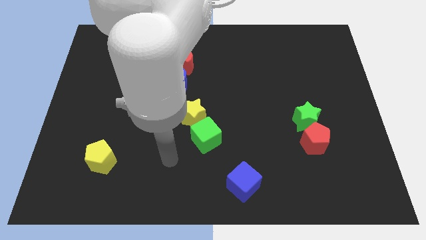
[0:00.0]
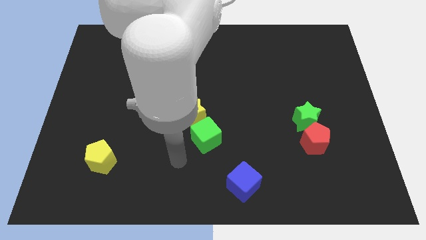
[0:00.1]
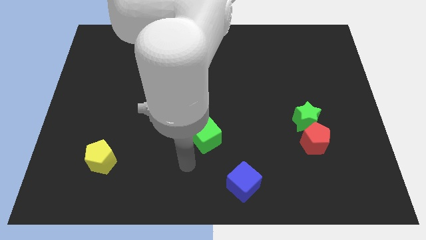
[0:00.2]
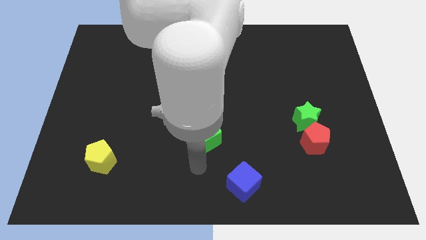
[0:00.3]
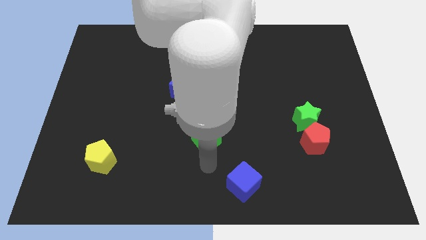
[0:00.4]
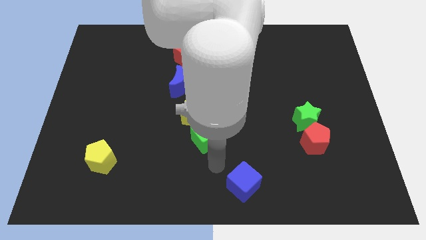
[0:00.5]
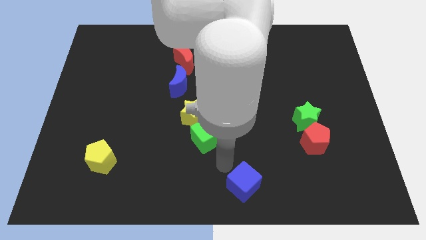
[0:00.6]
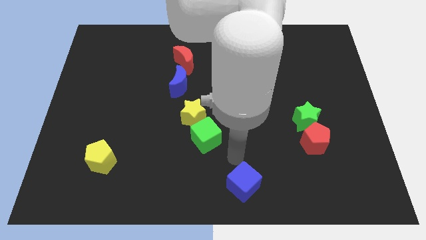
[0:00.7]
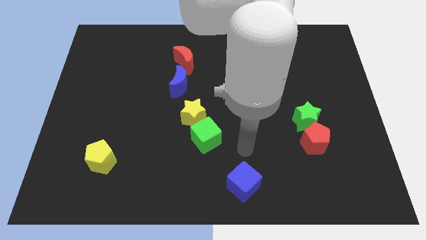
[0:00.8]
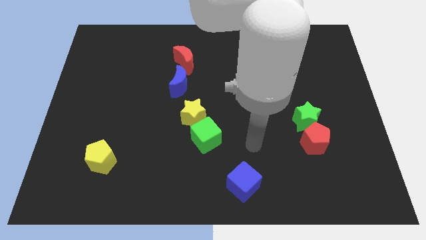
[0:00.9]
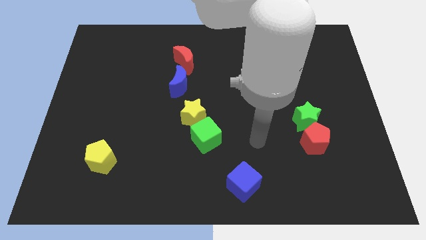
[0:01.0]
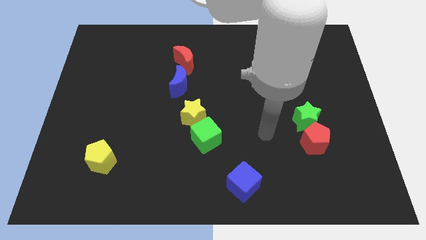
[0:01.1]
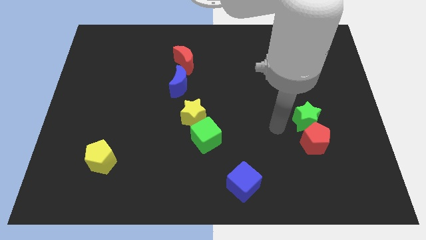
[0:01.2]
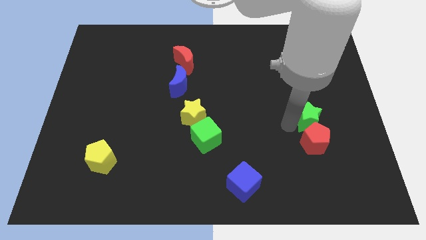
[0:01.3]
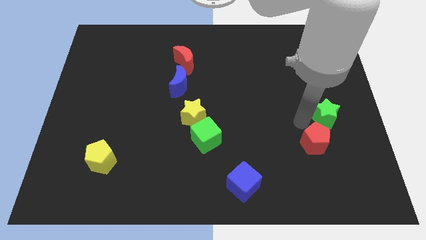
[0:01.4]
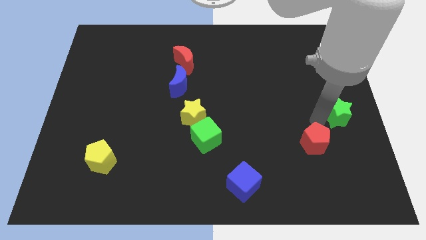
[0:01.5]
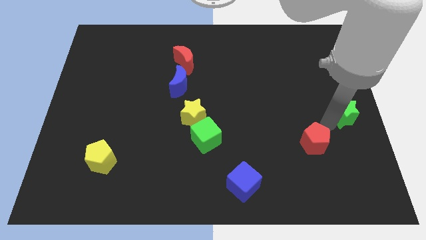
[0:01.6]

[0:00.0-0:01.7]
pull the red pentagon apart from the green star

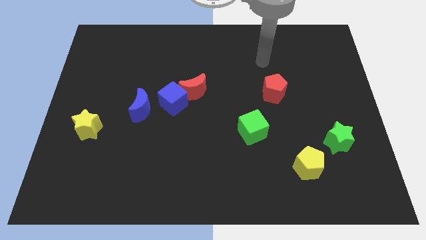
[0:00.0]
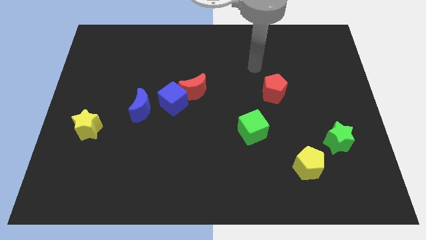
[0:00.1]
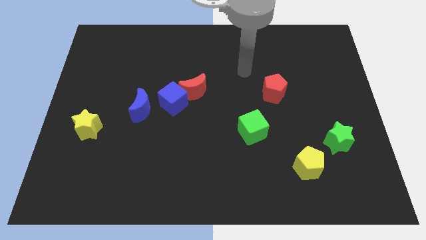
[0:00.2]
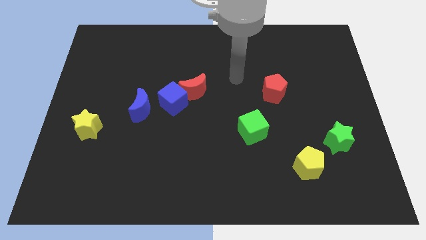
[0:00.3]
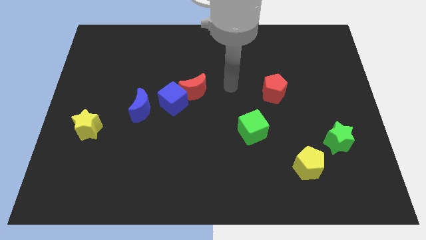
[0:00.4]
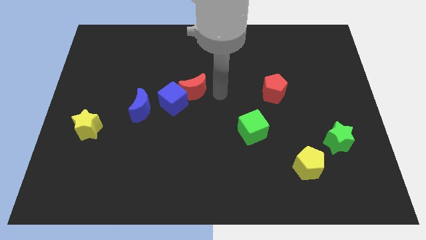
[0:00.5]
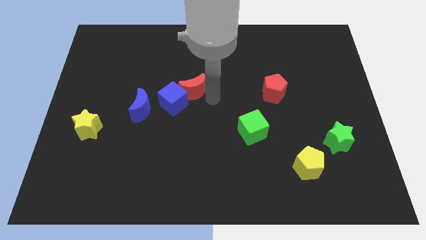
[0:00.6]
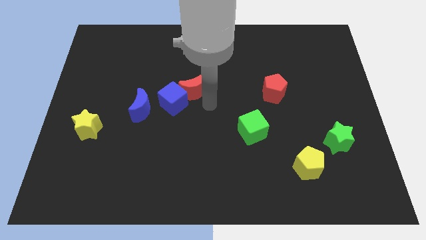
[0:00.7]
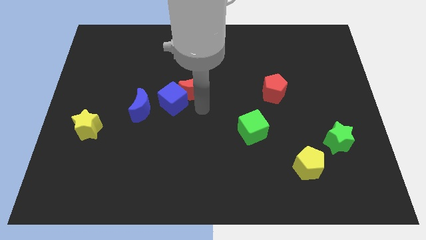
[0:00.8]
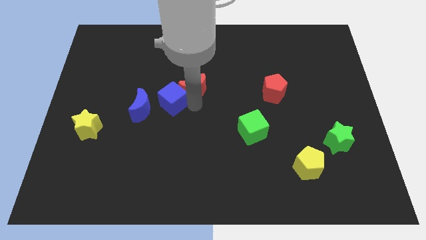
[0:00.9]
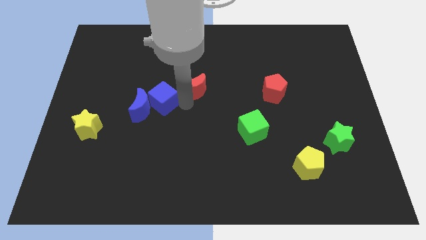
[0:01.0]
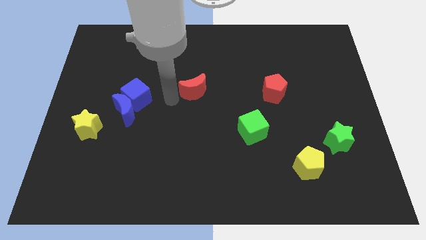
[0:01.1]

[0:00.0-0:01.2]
separate the red moon from the blue cube

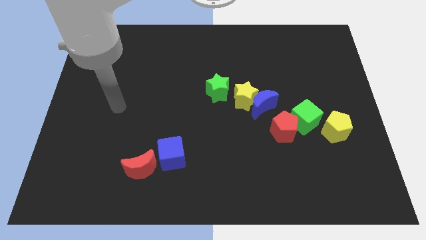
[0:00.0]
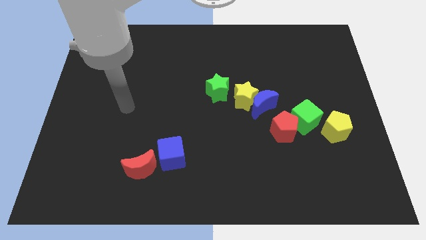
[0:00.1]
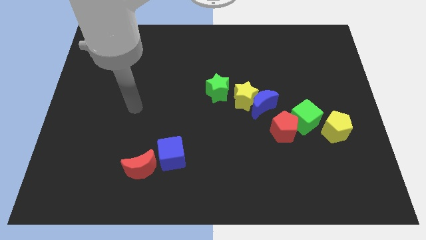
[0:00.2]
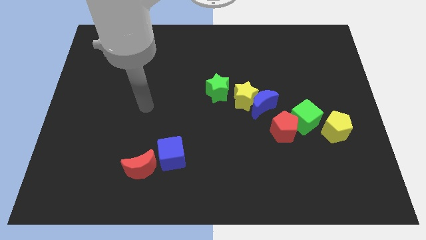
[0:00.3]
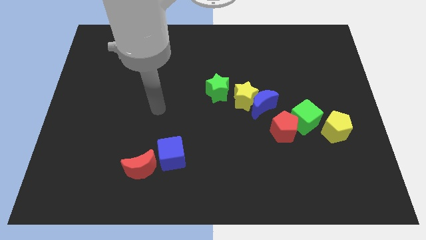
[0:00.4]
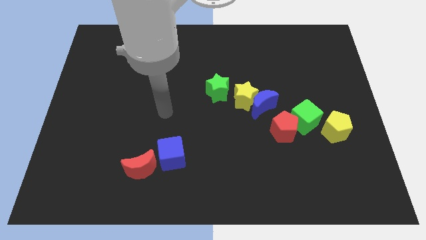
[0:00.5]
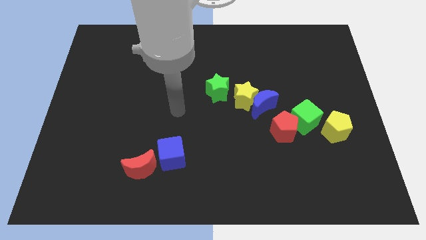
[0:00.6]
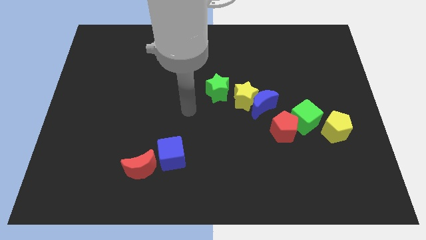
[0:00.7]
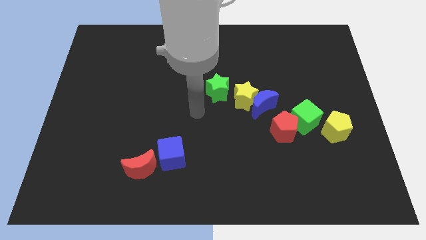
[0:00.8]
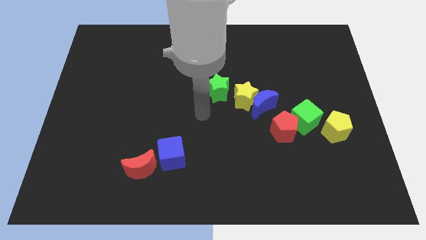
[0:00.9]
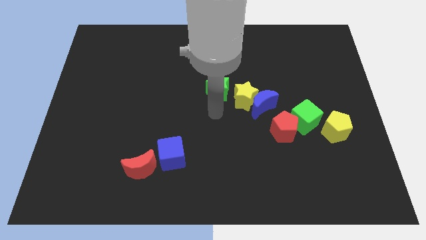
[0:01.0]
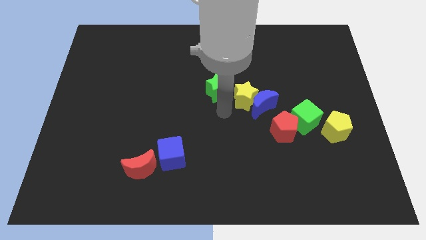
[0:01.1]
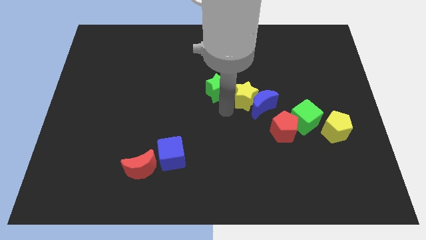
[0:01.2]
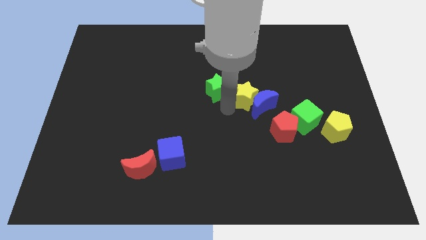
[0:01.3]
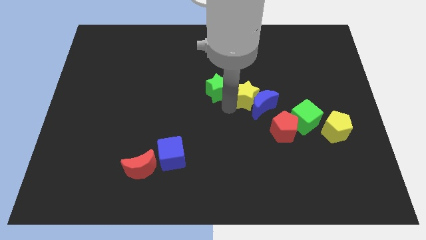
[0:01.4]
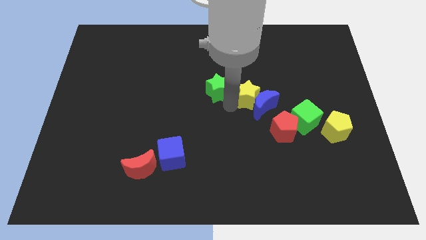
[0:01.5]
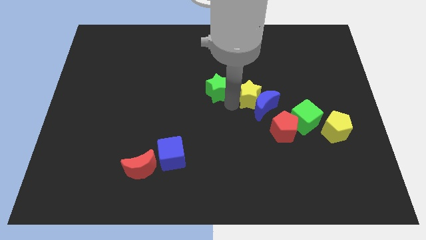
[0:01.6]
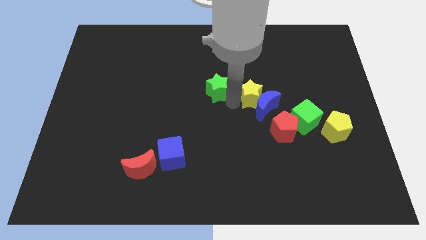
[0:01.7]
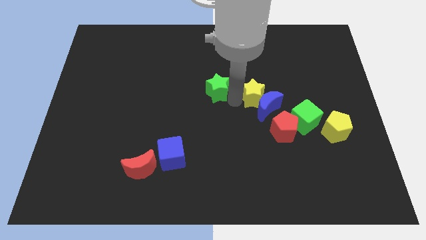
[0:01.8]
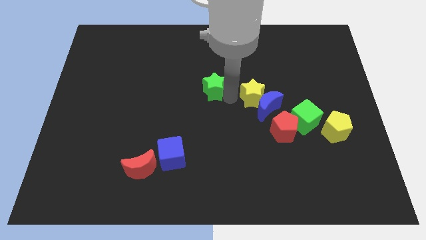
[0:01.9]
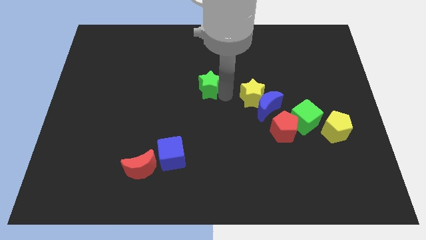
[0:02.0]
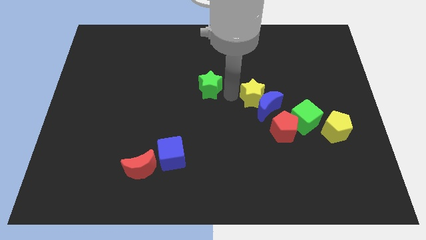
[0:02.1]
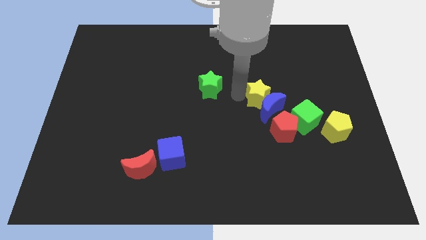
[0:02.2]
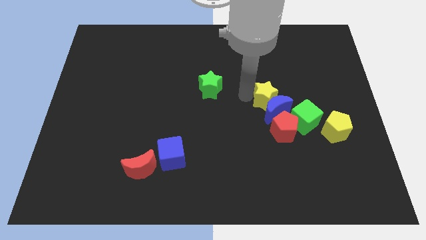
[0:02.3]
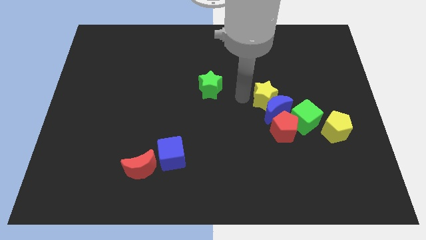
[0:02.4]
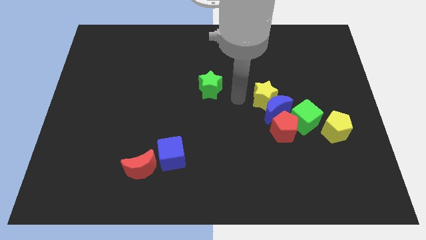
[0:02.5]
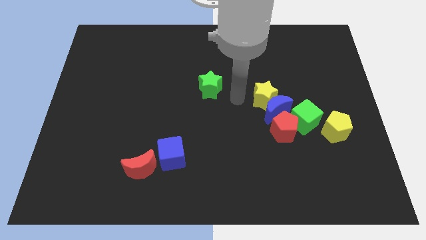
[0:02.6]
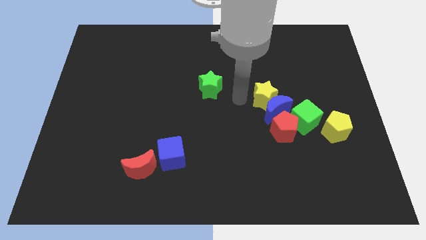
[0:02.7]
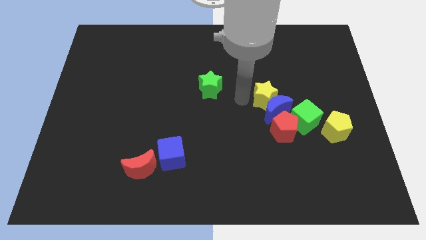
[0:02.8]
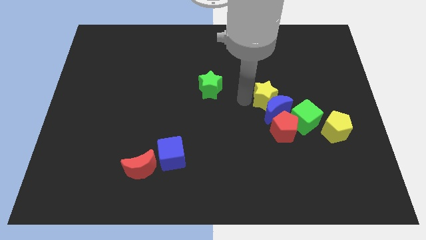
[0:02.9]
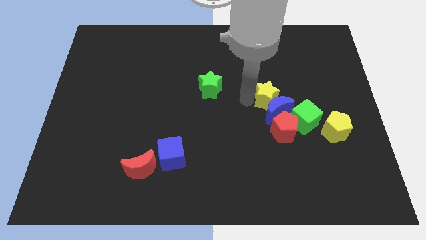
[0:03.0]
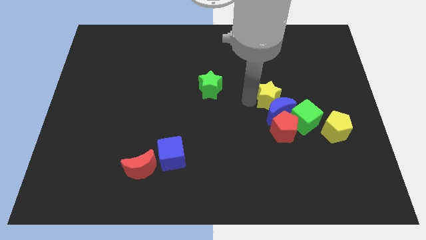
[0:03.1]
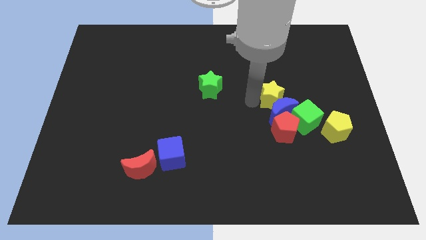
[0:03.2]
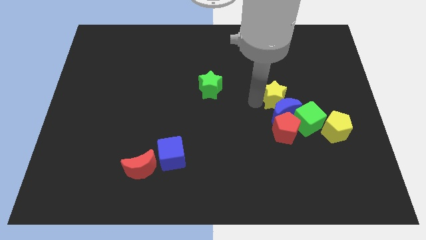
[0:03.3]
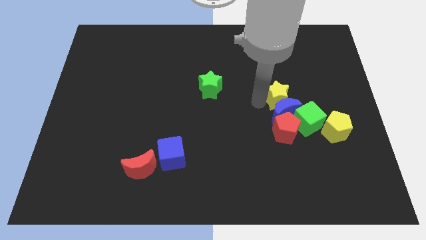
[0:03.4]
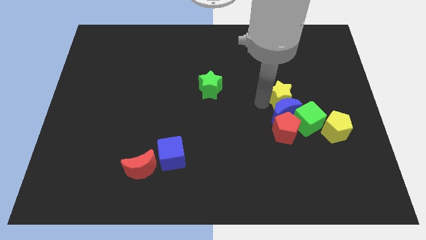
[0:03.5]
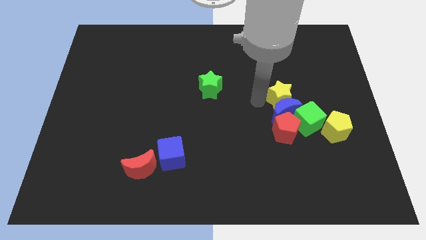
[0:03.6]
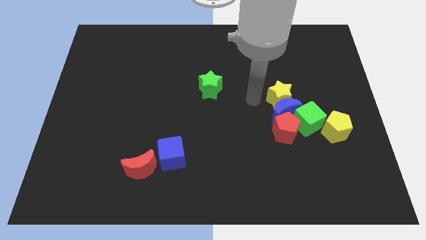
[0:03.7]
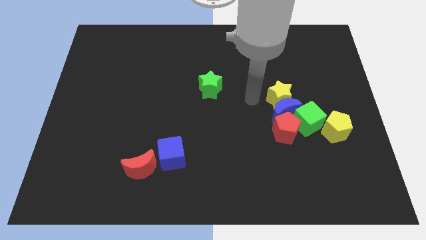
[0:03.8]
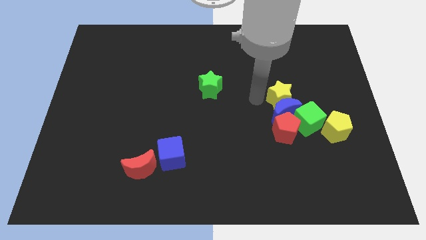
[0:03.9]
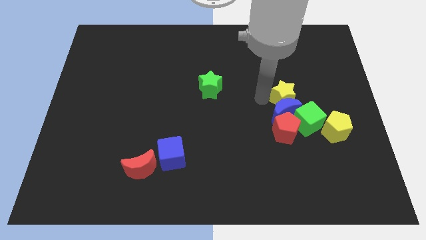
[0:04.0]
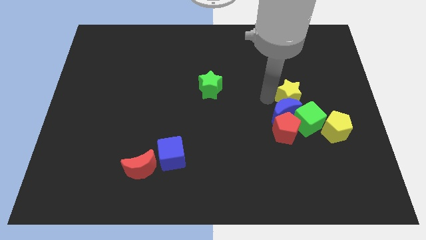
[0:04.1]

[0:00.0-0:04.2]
pull the yellow star apart from the blue moon and green star

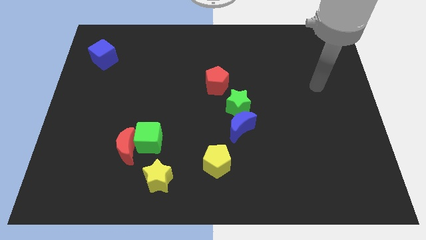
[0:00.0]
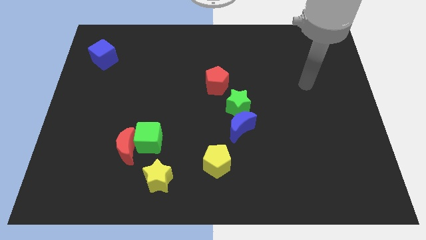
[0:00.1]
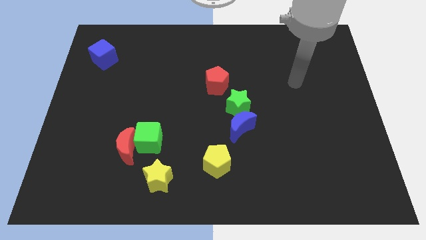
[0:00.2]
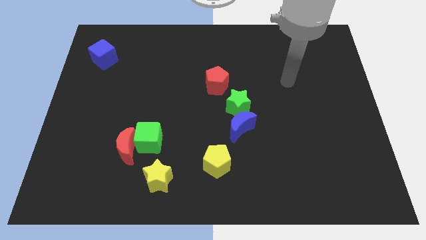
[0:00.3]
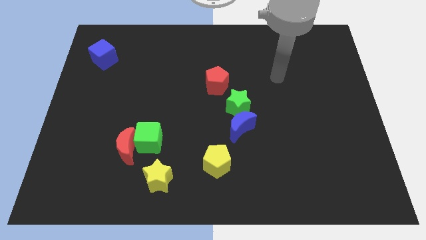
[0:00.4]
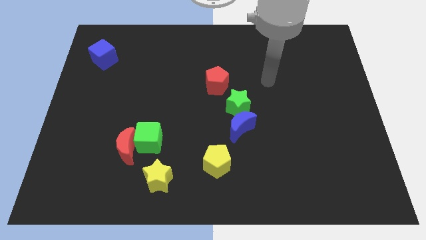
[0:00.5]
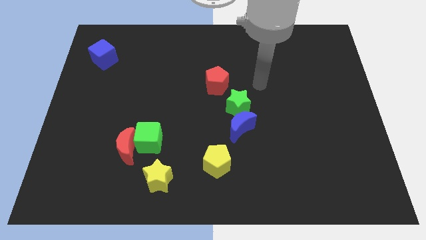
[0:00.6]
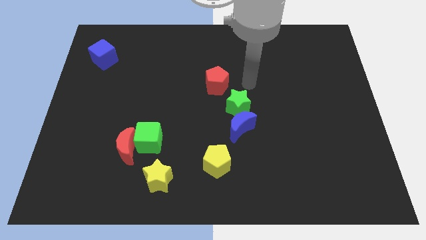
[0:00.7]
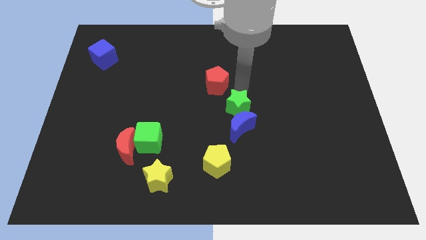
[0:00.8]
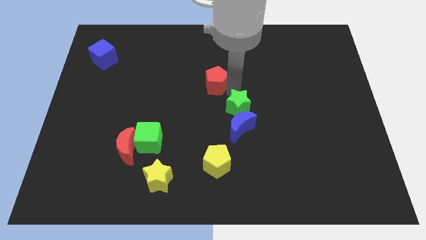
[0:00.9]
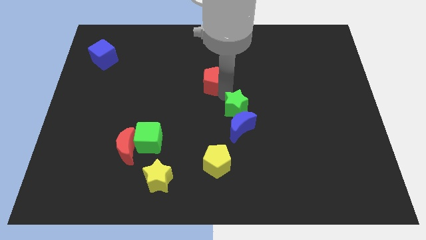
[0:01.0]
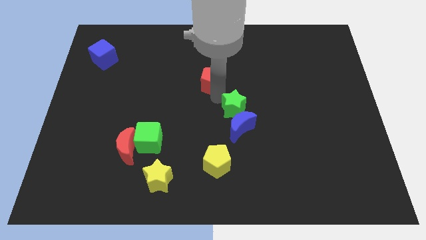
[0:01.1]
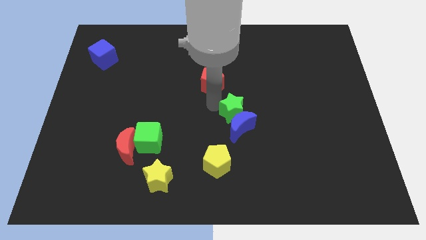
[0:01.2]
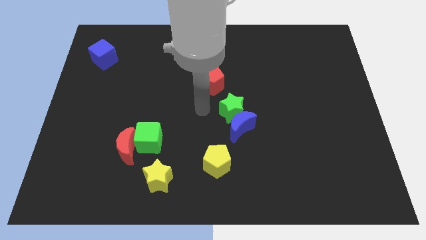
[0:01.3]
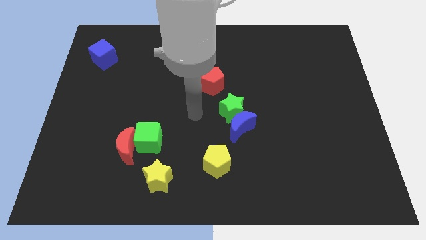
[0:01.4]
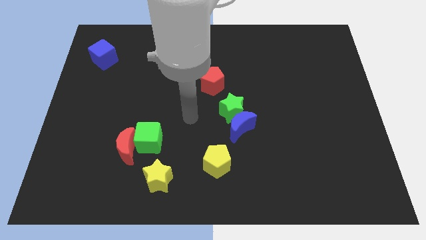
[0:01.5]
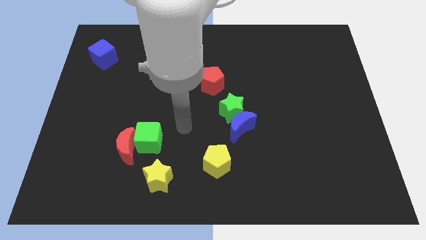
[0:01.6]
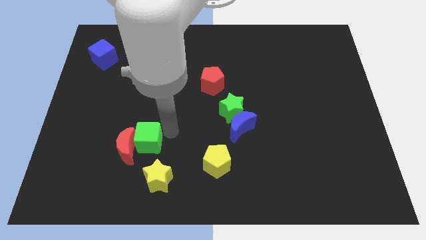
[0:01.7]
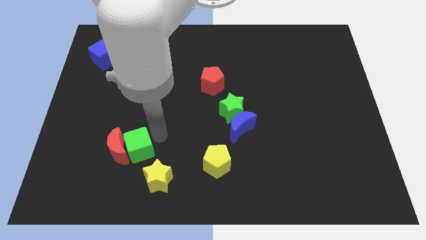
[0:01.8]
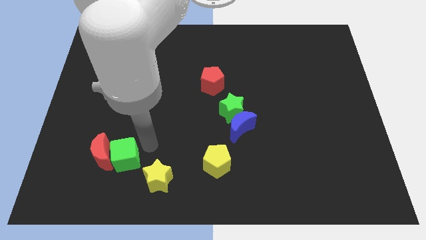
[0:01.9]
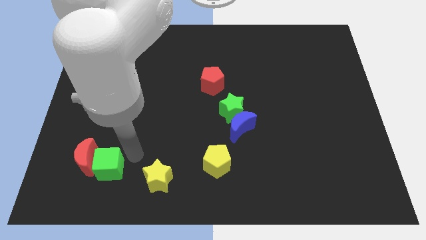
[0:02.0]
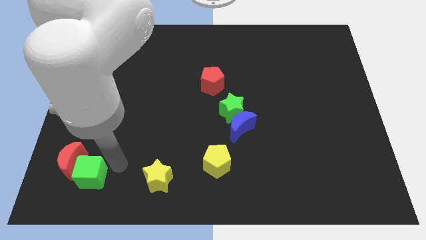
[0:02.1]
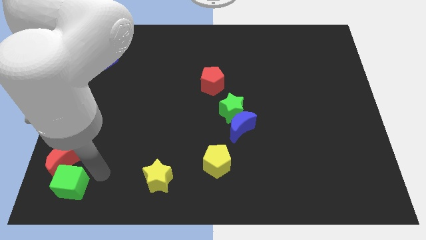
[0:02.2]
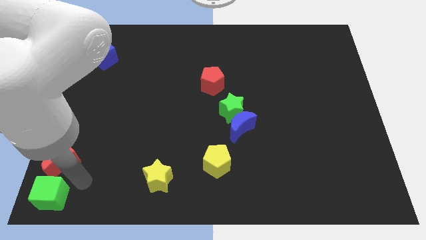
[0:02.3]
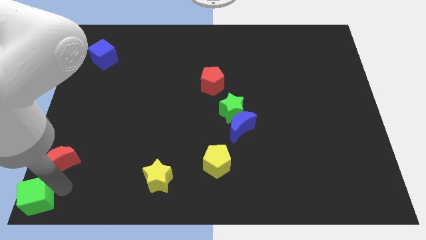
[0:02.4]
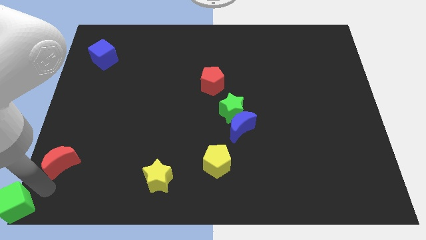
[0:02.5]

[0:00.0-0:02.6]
separate the red moon from the green cube
